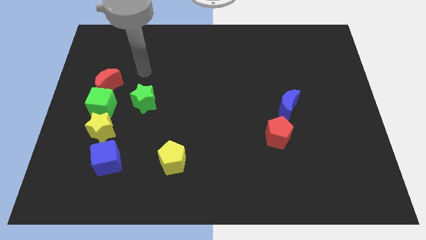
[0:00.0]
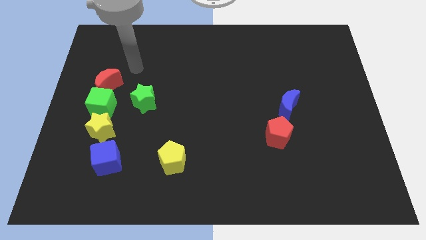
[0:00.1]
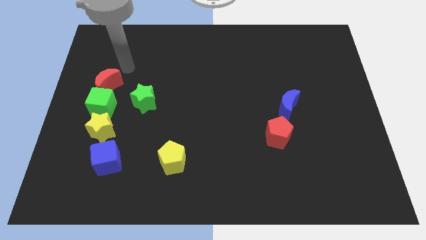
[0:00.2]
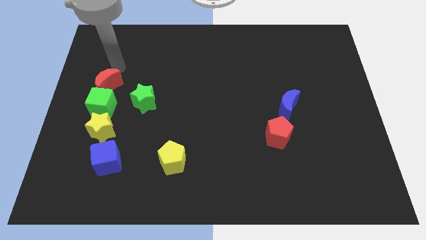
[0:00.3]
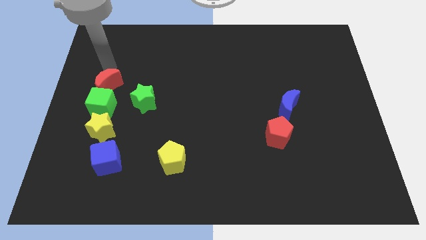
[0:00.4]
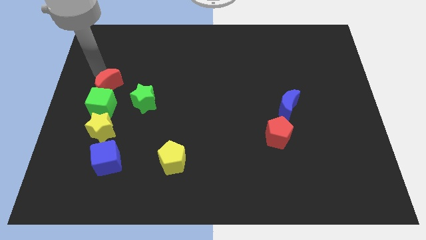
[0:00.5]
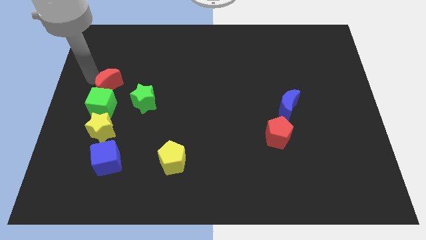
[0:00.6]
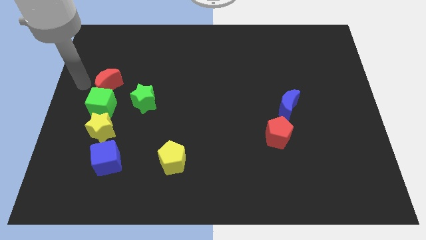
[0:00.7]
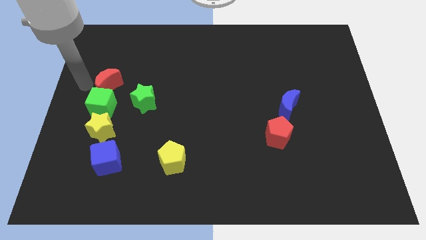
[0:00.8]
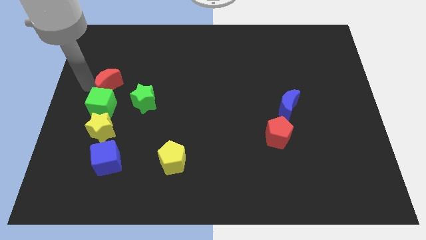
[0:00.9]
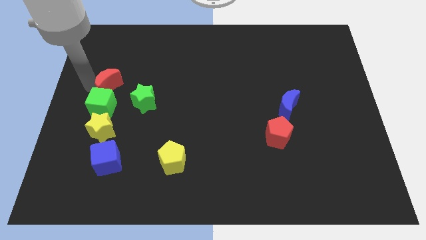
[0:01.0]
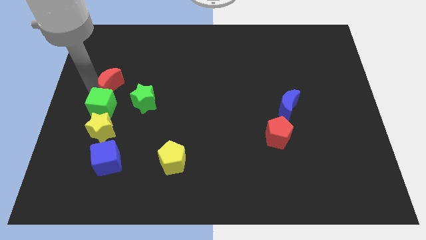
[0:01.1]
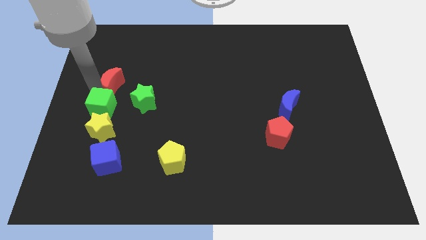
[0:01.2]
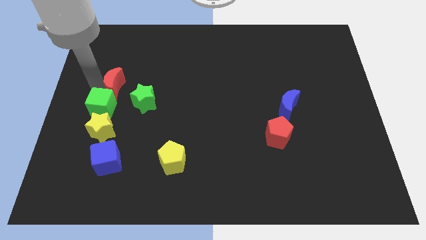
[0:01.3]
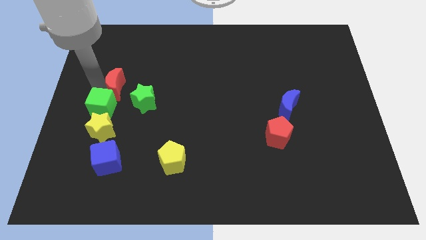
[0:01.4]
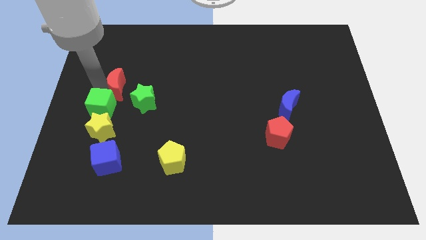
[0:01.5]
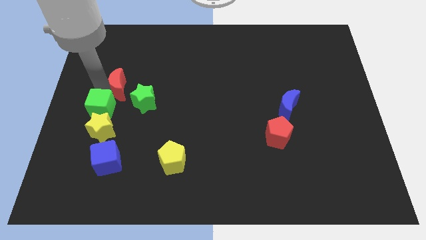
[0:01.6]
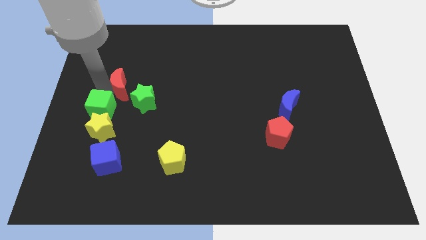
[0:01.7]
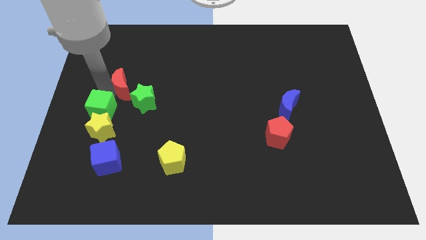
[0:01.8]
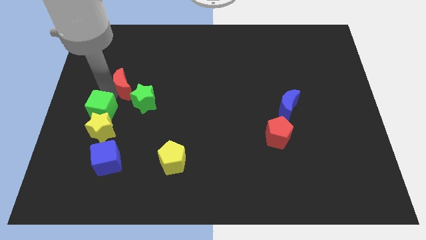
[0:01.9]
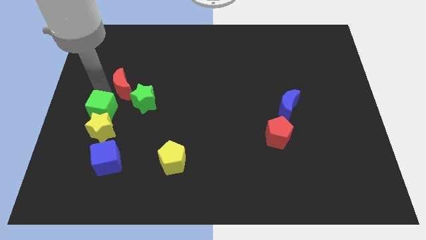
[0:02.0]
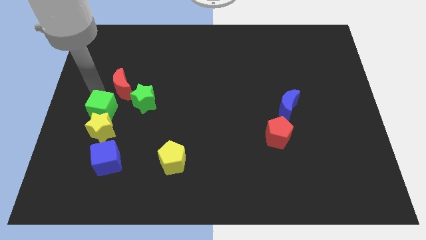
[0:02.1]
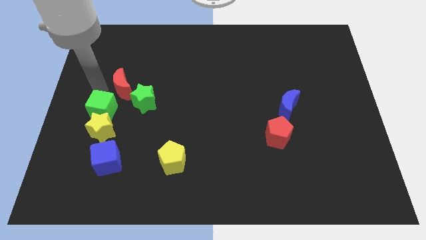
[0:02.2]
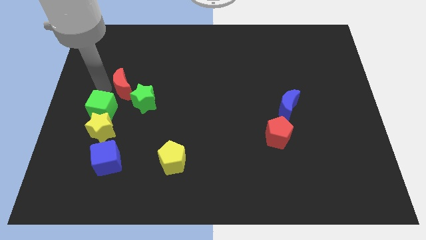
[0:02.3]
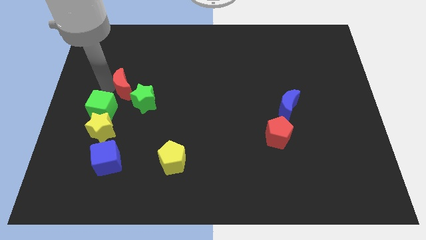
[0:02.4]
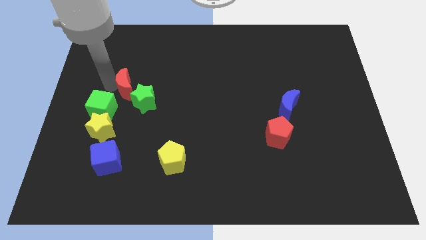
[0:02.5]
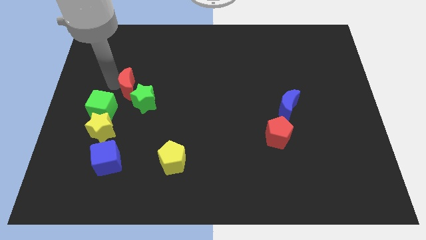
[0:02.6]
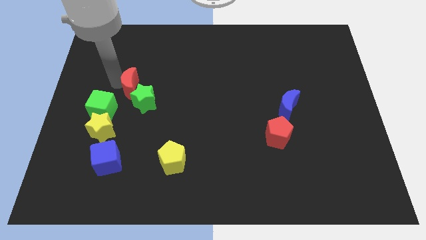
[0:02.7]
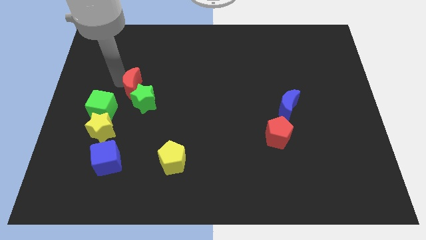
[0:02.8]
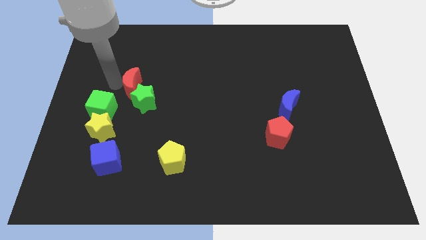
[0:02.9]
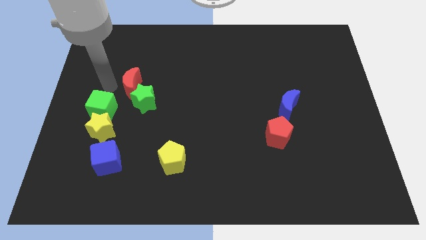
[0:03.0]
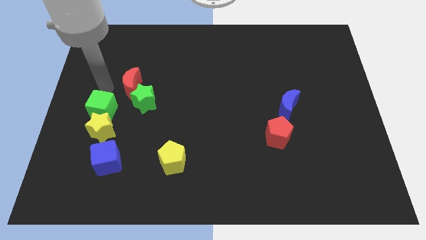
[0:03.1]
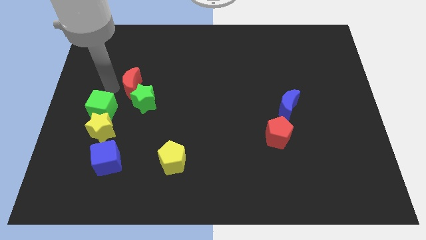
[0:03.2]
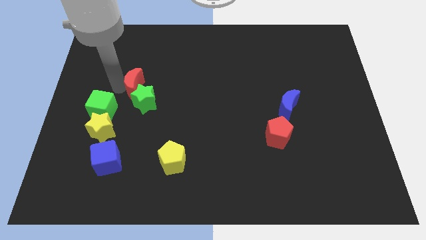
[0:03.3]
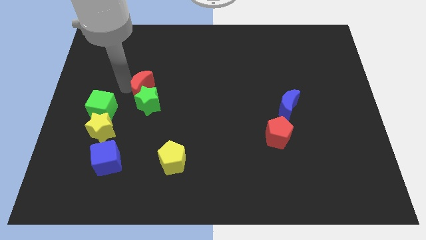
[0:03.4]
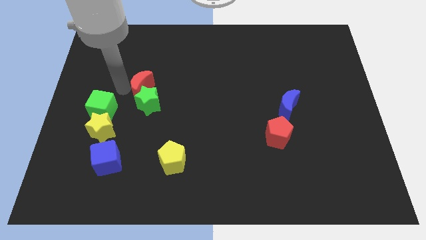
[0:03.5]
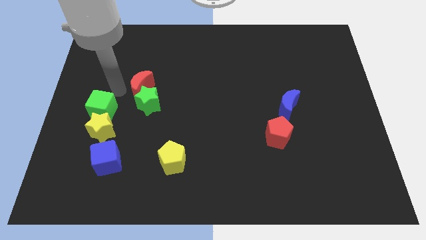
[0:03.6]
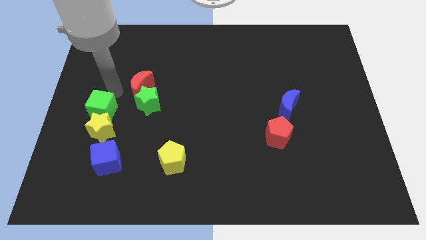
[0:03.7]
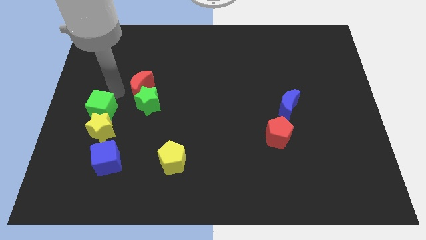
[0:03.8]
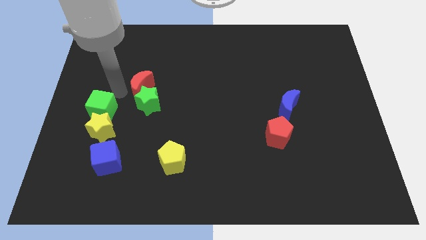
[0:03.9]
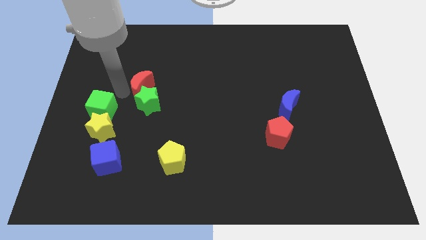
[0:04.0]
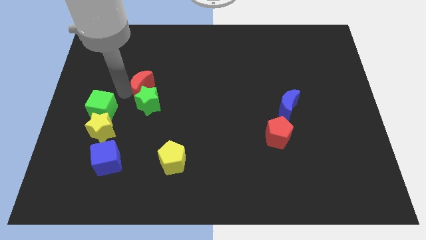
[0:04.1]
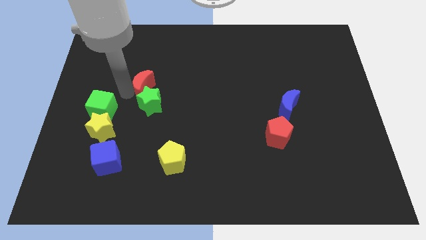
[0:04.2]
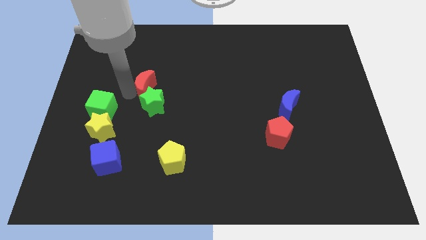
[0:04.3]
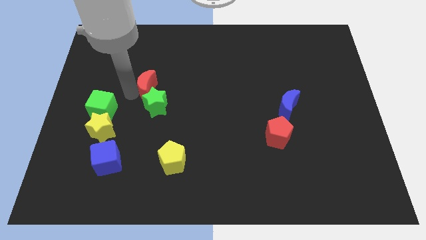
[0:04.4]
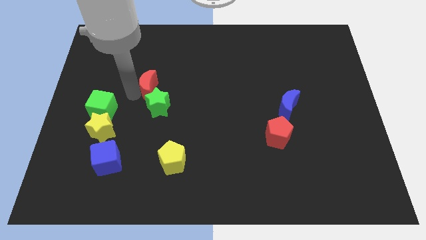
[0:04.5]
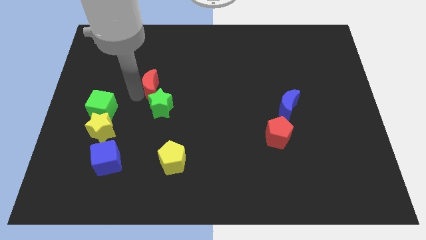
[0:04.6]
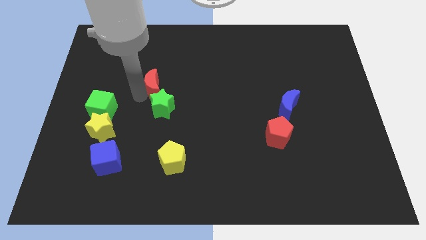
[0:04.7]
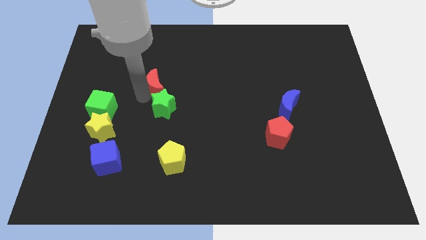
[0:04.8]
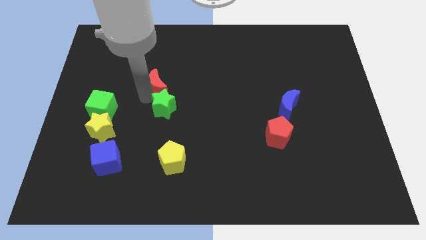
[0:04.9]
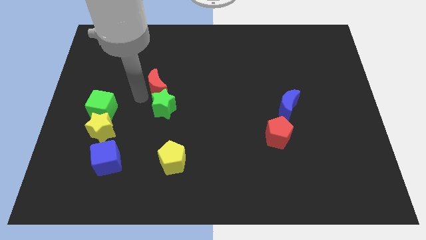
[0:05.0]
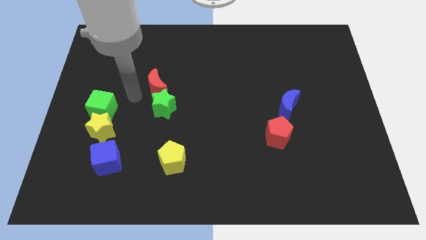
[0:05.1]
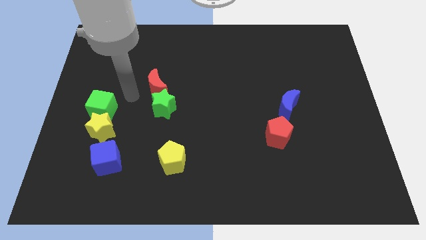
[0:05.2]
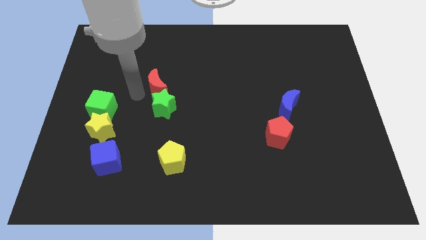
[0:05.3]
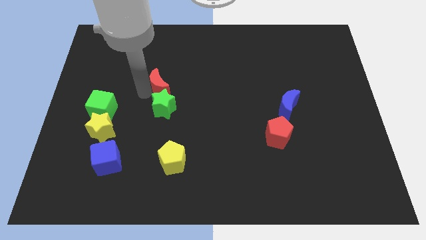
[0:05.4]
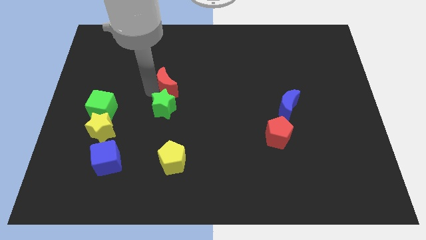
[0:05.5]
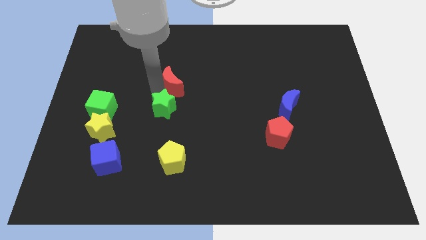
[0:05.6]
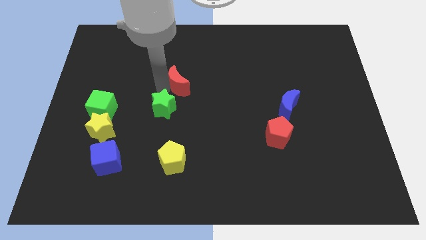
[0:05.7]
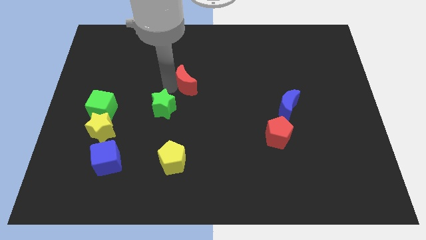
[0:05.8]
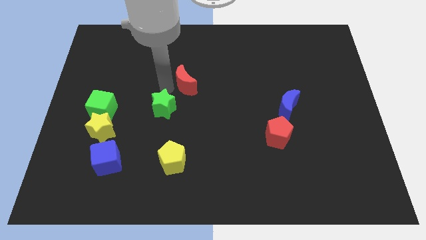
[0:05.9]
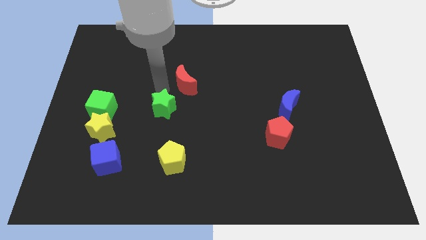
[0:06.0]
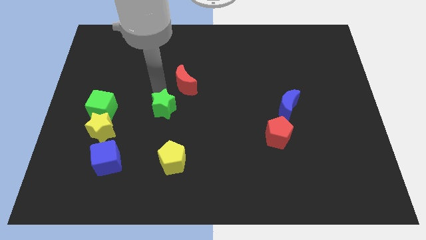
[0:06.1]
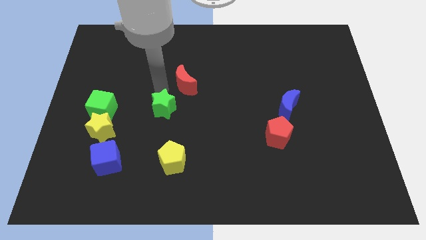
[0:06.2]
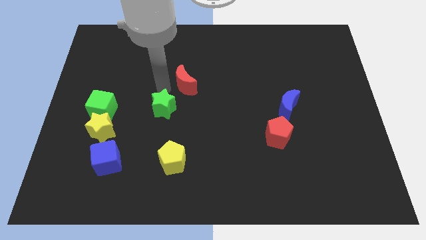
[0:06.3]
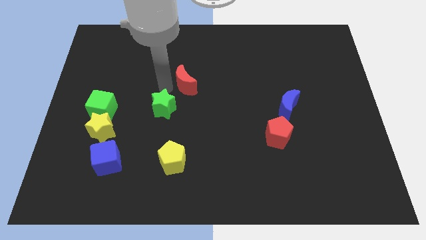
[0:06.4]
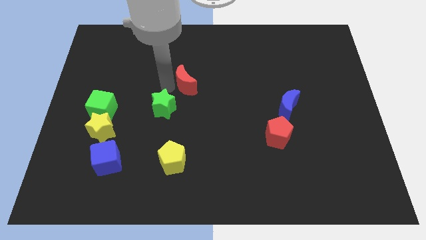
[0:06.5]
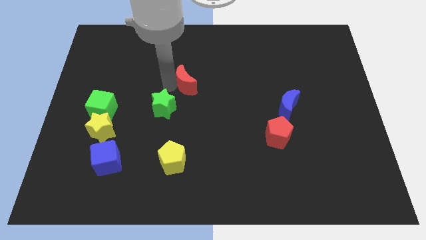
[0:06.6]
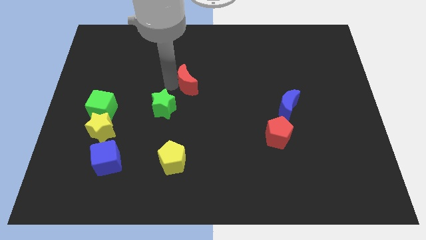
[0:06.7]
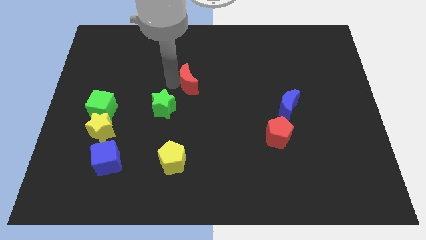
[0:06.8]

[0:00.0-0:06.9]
move the red moon to the right

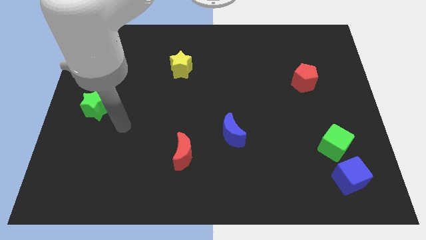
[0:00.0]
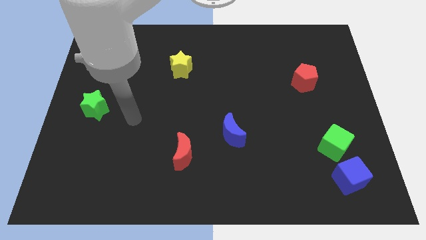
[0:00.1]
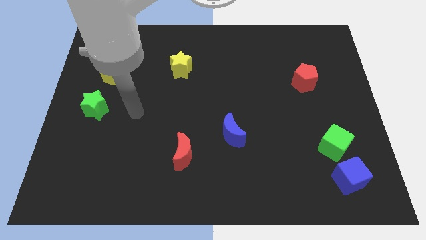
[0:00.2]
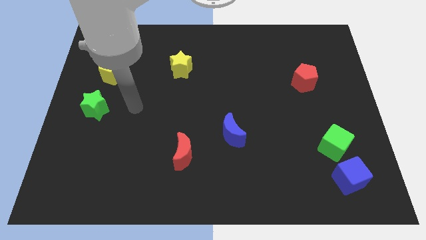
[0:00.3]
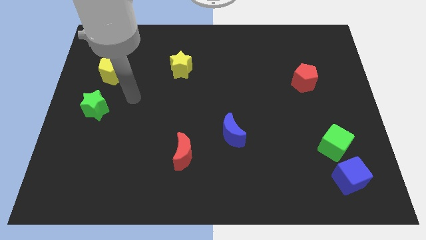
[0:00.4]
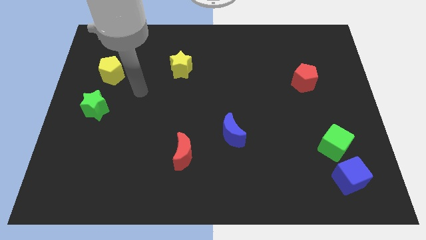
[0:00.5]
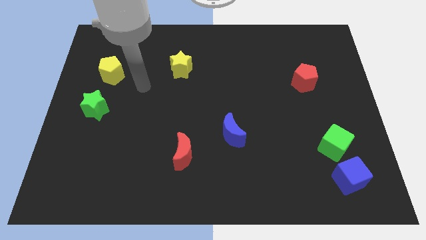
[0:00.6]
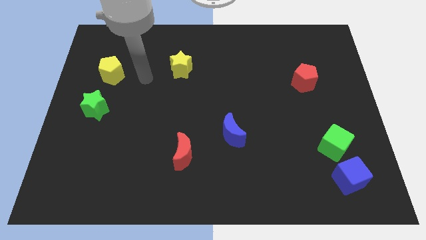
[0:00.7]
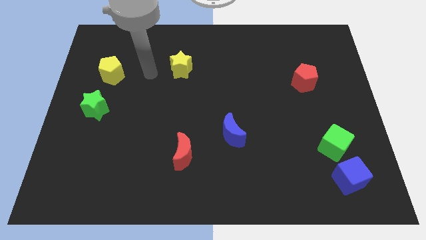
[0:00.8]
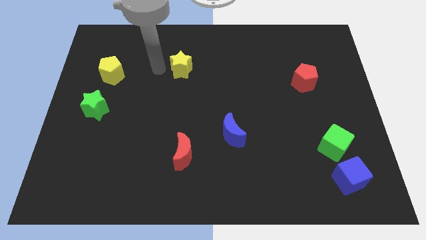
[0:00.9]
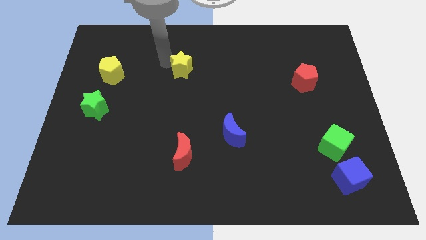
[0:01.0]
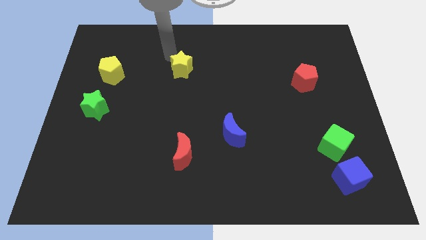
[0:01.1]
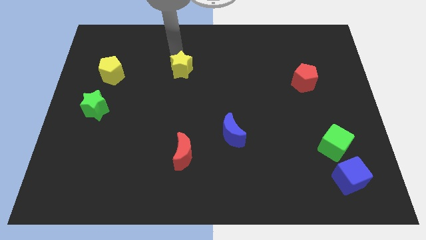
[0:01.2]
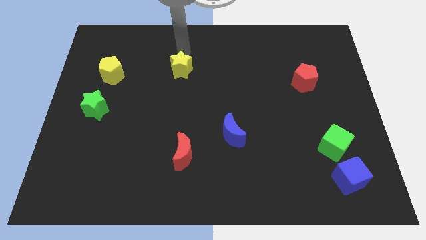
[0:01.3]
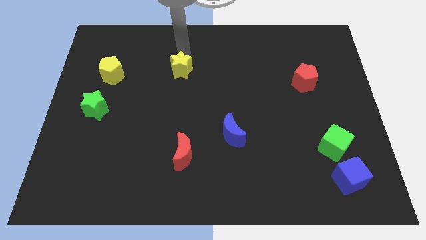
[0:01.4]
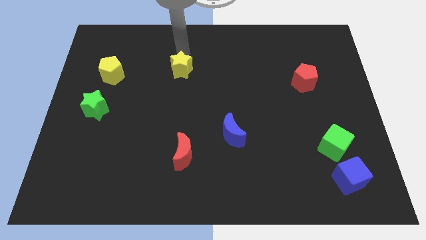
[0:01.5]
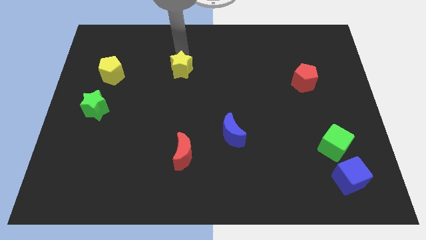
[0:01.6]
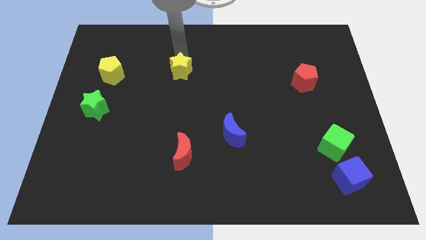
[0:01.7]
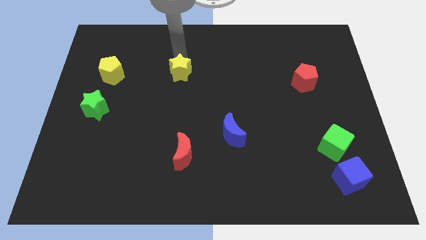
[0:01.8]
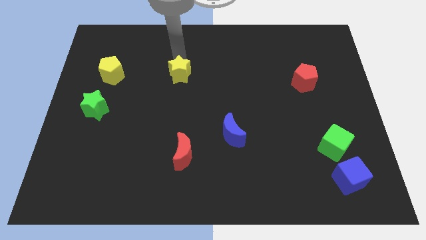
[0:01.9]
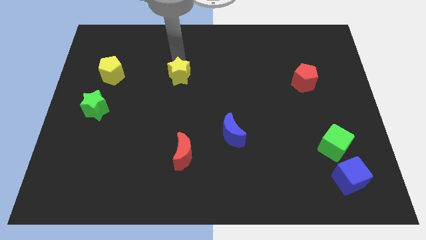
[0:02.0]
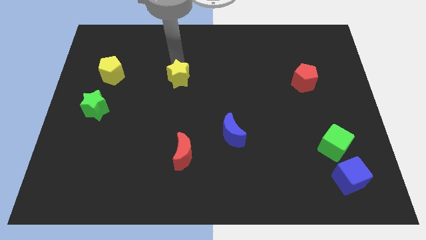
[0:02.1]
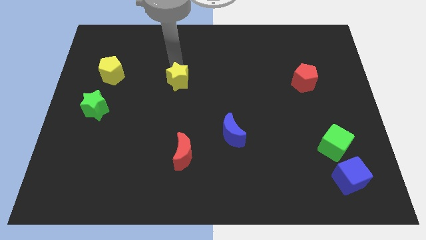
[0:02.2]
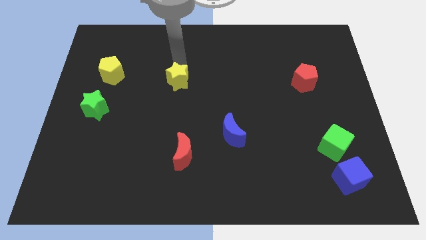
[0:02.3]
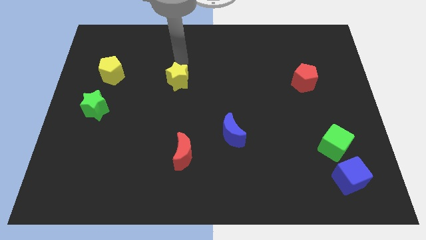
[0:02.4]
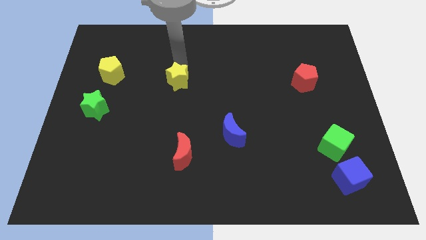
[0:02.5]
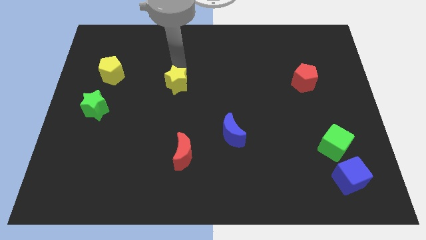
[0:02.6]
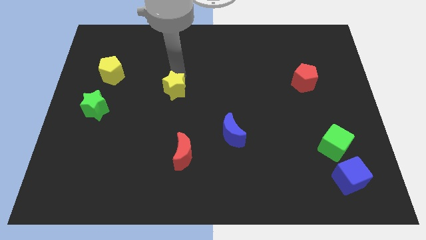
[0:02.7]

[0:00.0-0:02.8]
push the yellow star slightly down
